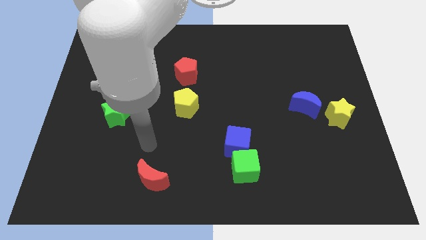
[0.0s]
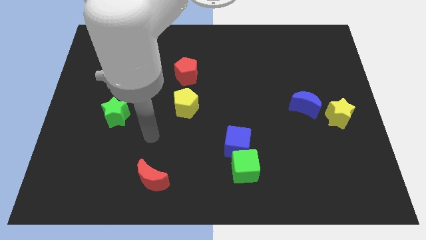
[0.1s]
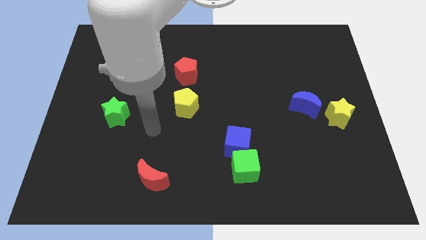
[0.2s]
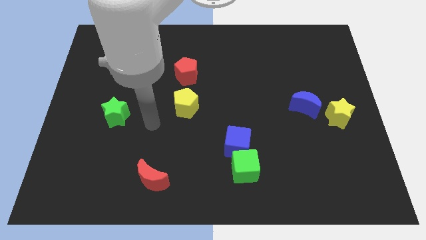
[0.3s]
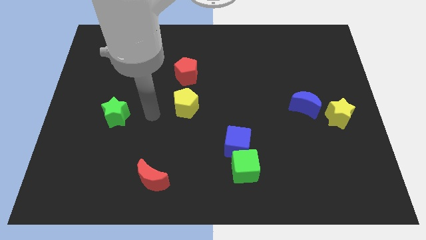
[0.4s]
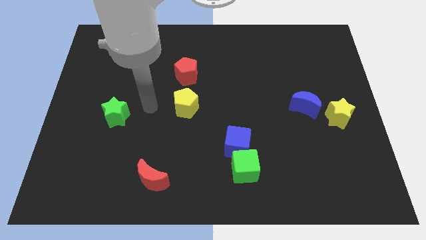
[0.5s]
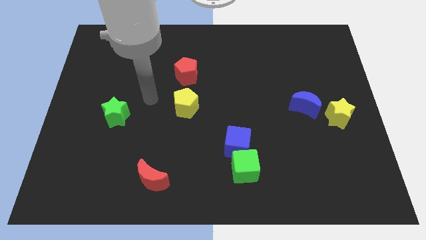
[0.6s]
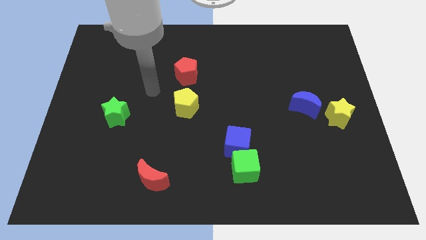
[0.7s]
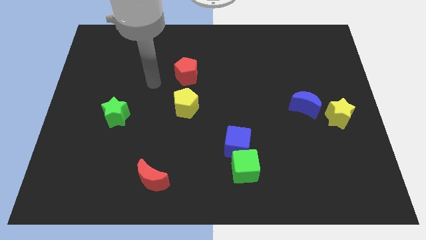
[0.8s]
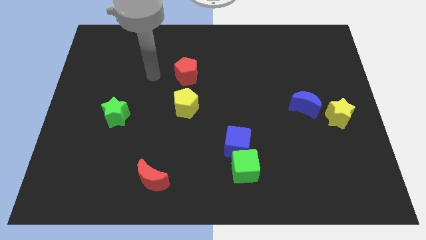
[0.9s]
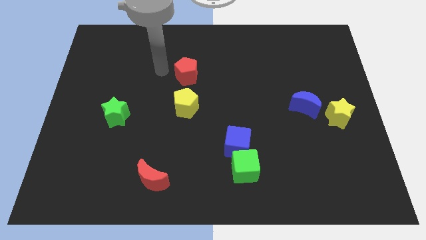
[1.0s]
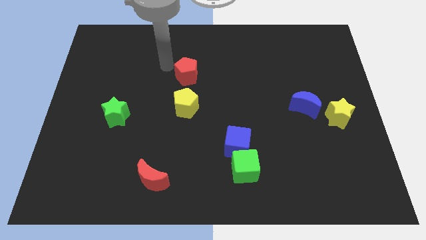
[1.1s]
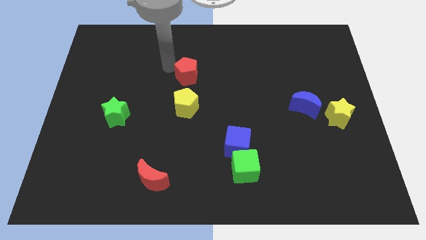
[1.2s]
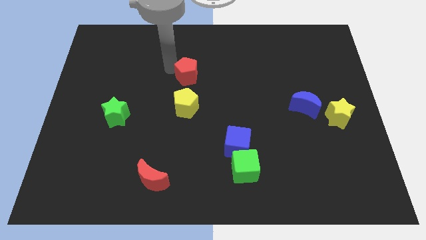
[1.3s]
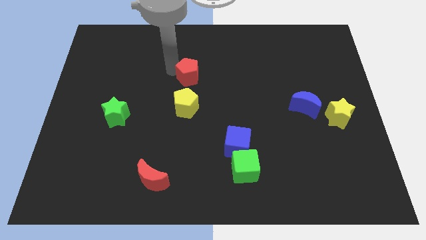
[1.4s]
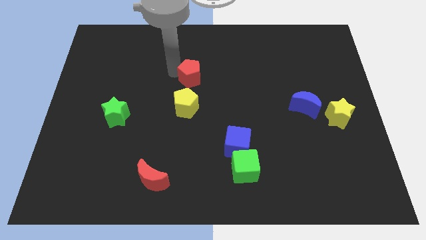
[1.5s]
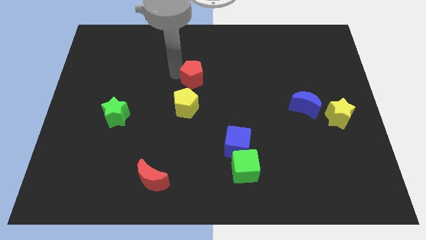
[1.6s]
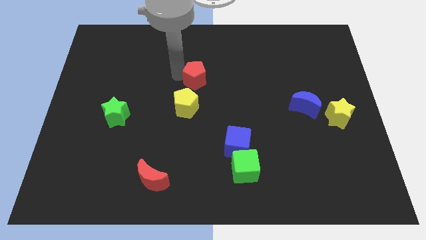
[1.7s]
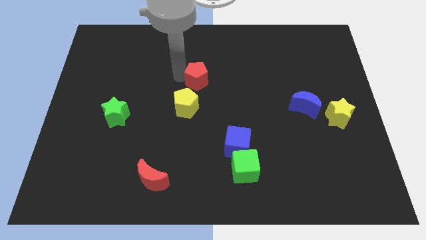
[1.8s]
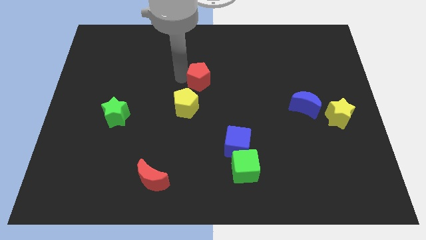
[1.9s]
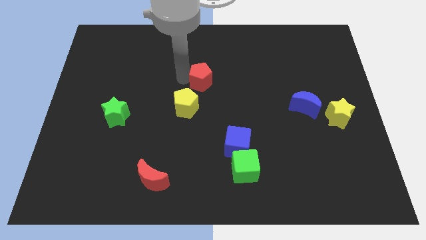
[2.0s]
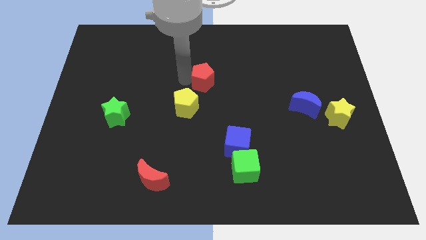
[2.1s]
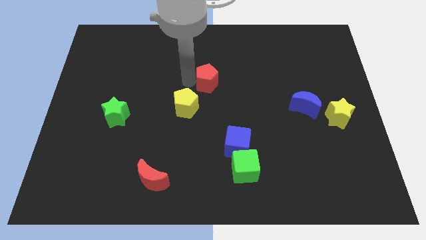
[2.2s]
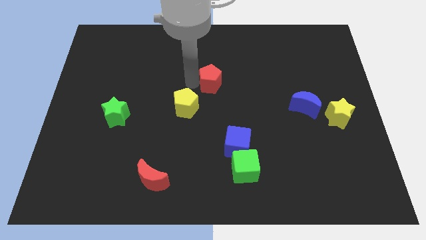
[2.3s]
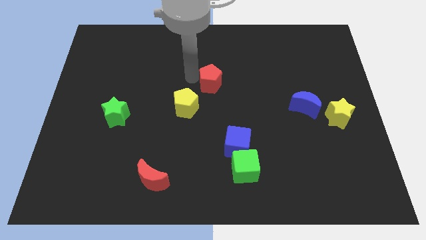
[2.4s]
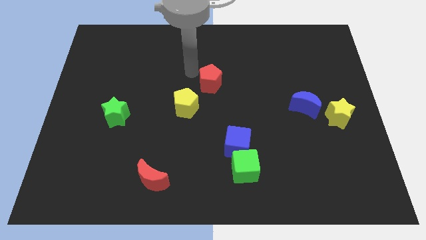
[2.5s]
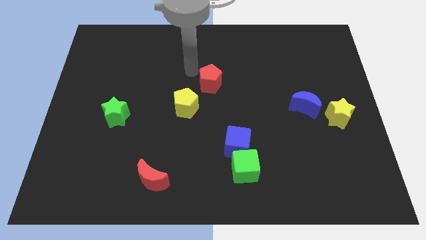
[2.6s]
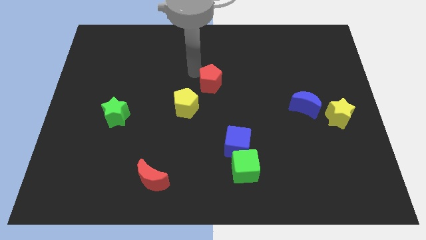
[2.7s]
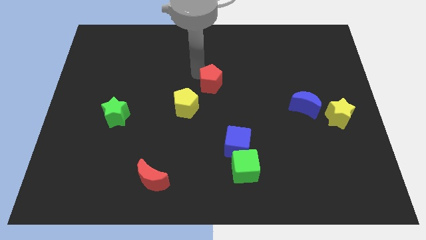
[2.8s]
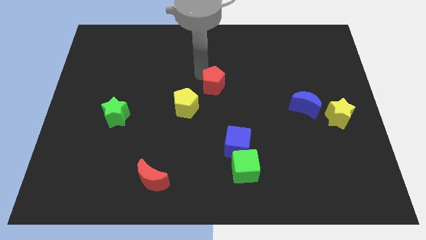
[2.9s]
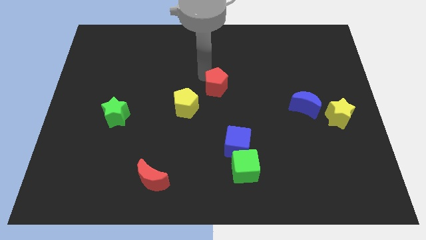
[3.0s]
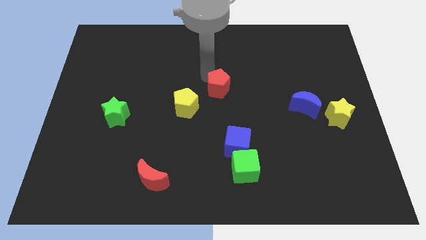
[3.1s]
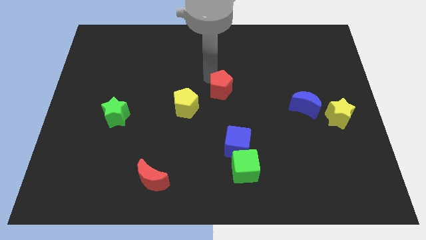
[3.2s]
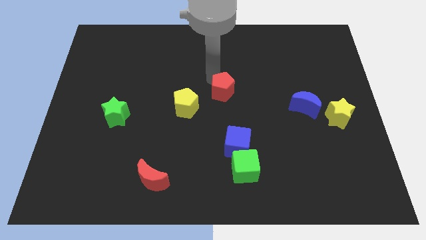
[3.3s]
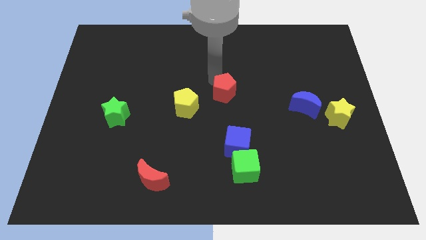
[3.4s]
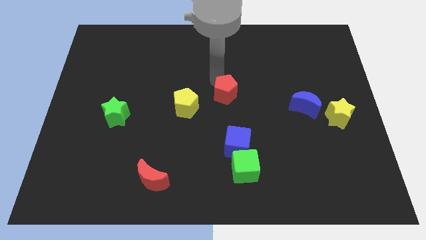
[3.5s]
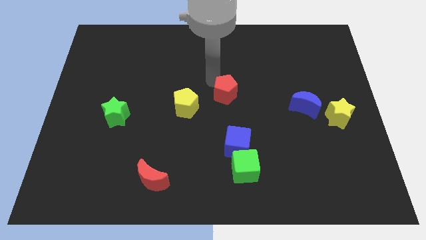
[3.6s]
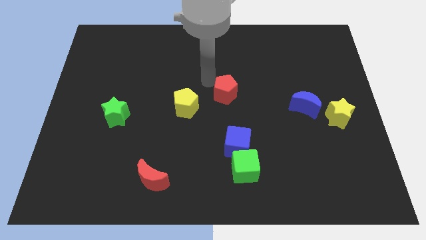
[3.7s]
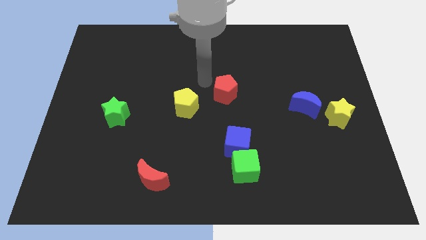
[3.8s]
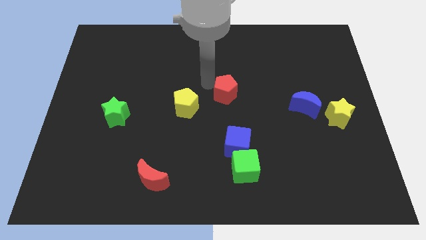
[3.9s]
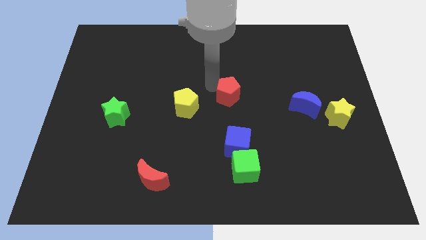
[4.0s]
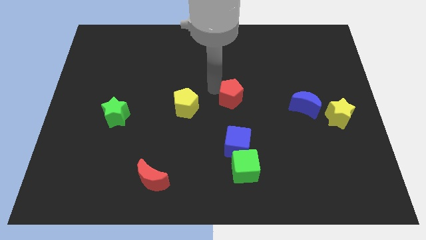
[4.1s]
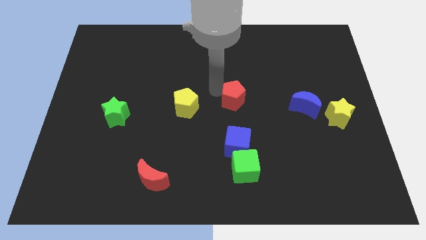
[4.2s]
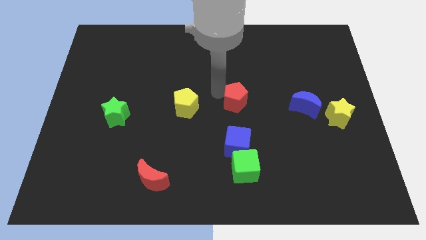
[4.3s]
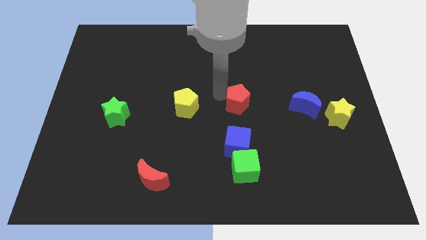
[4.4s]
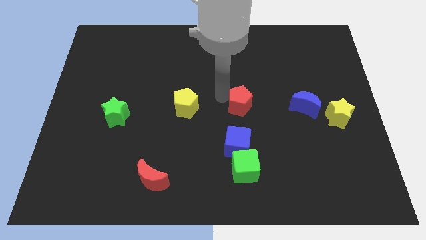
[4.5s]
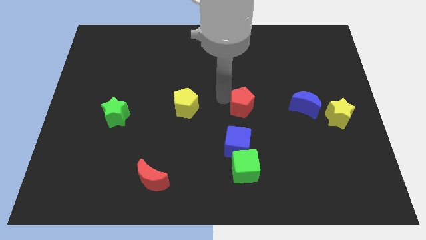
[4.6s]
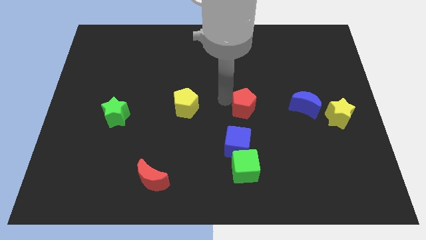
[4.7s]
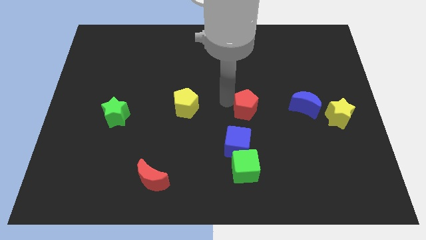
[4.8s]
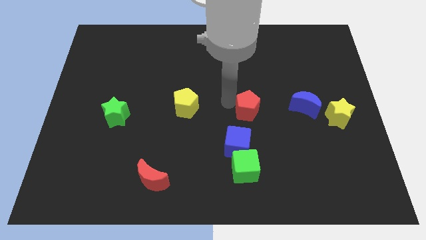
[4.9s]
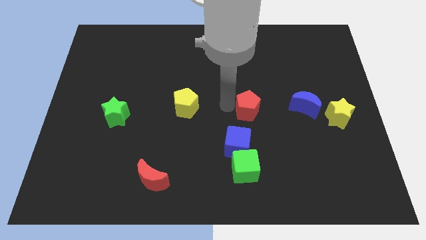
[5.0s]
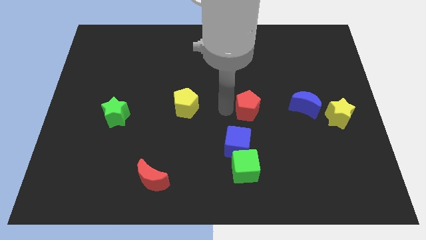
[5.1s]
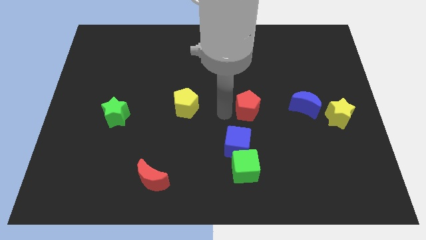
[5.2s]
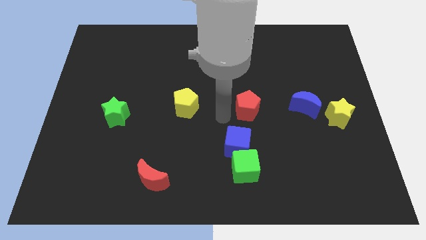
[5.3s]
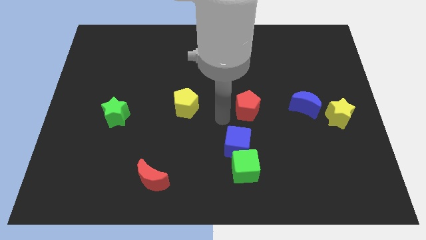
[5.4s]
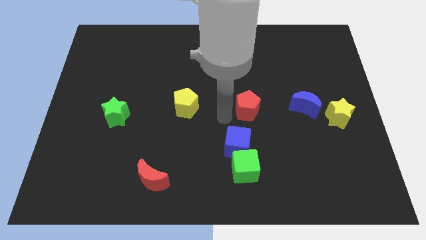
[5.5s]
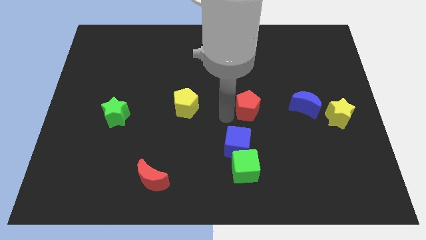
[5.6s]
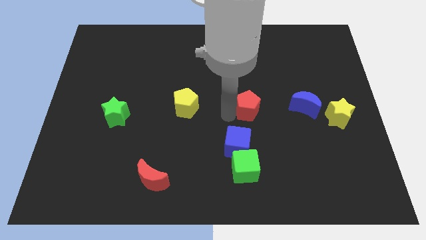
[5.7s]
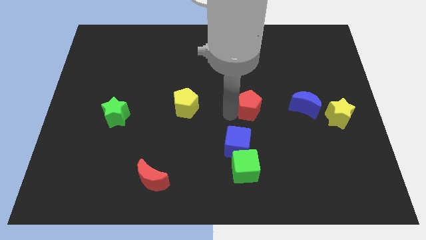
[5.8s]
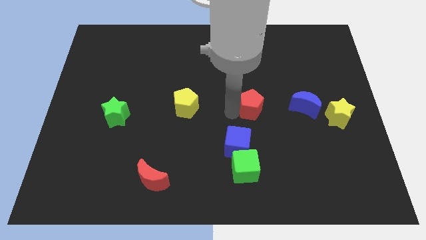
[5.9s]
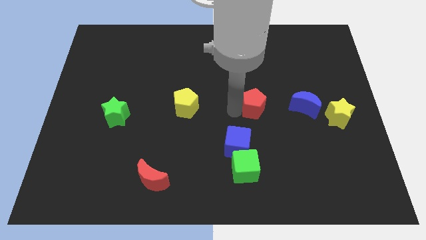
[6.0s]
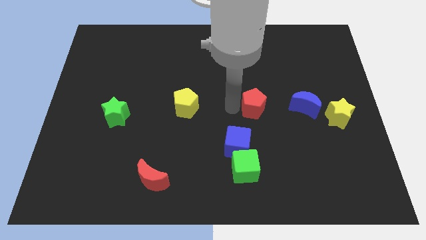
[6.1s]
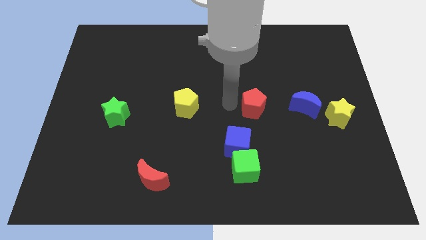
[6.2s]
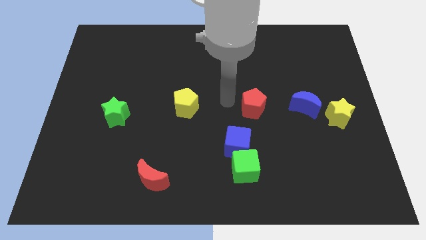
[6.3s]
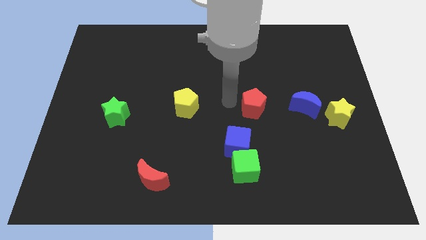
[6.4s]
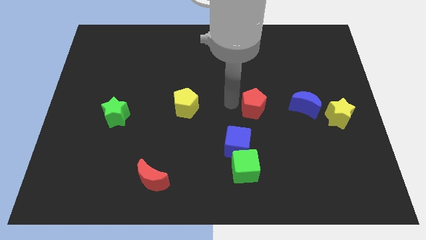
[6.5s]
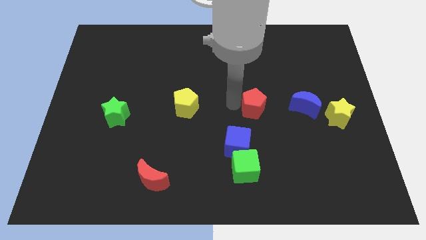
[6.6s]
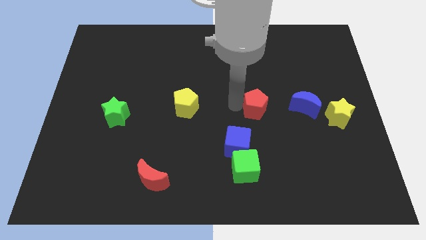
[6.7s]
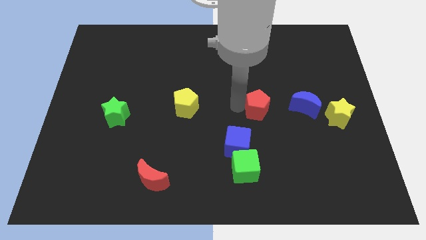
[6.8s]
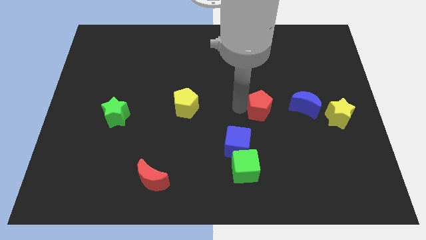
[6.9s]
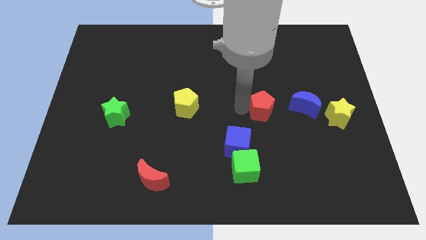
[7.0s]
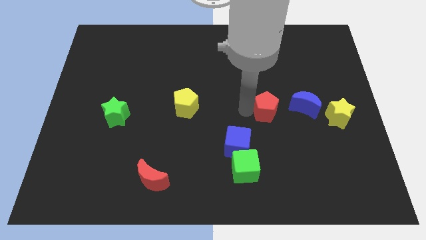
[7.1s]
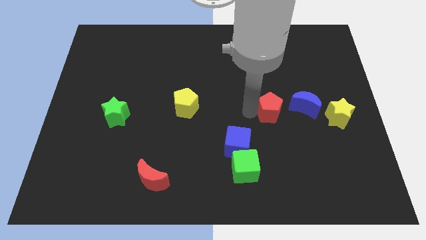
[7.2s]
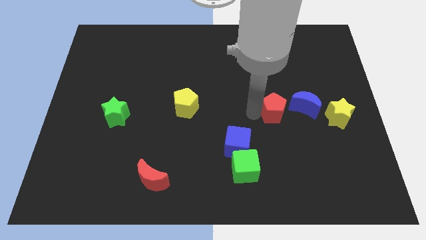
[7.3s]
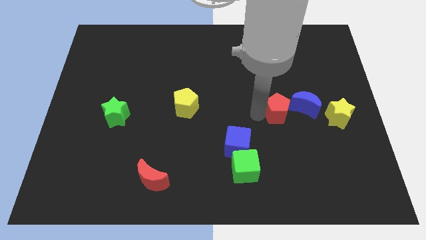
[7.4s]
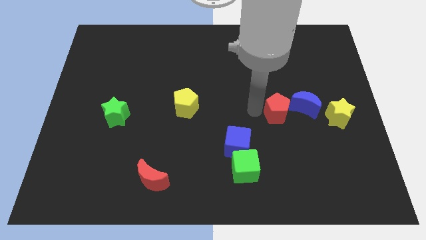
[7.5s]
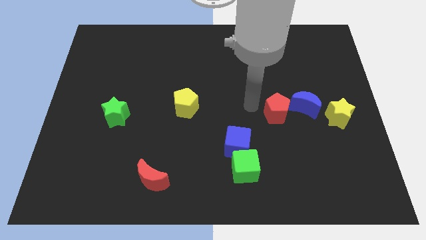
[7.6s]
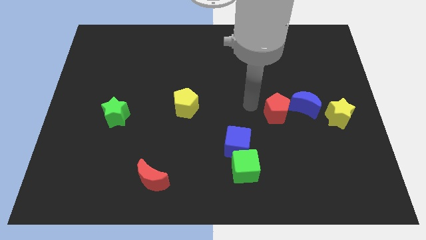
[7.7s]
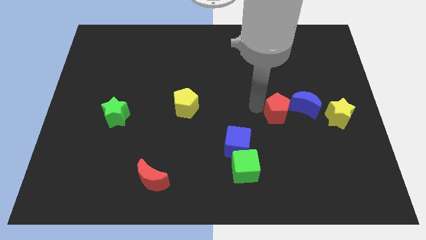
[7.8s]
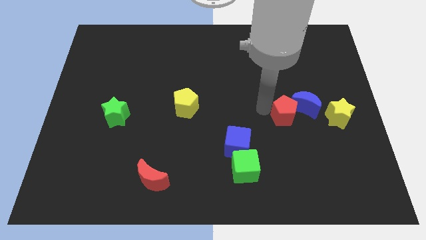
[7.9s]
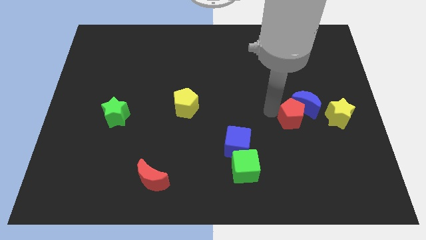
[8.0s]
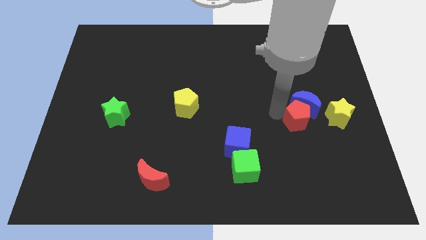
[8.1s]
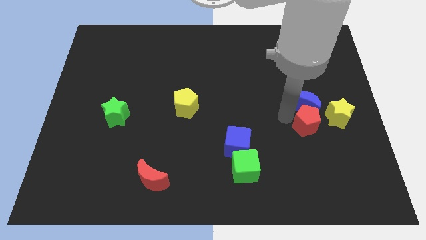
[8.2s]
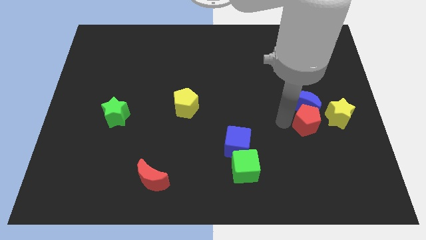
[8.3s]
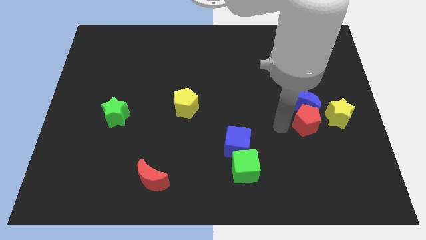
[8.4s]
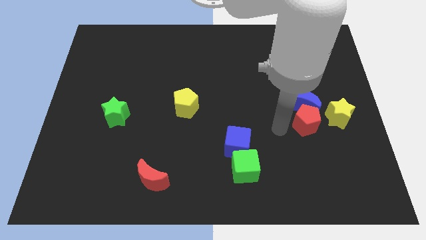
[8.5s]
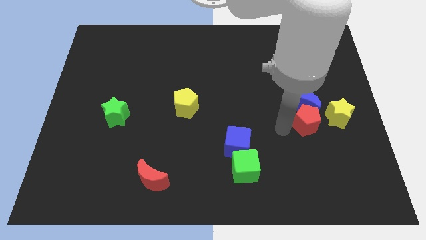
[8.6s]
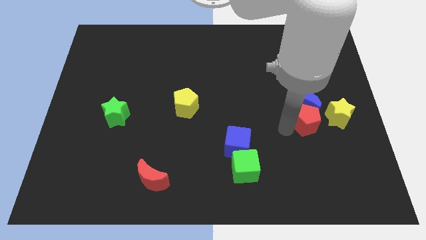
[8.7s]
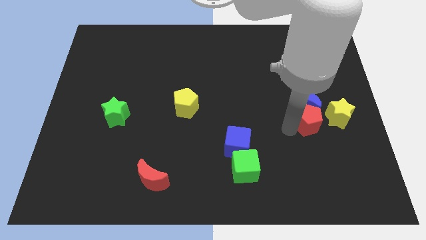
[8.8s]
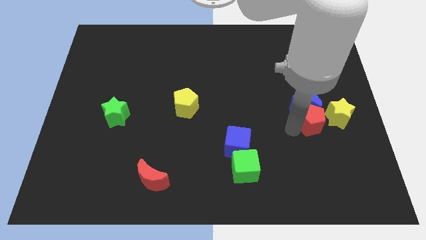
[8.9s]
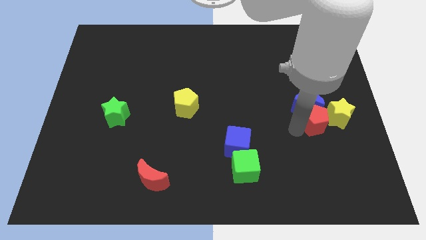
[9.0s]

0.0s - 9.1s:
push the red pentagon next to the yellow star
